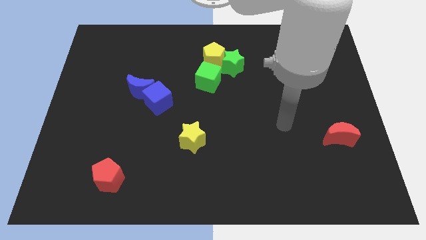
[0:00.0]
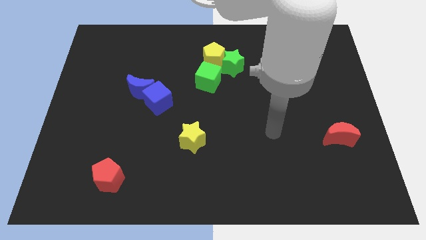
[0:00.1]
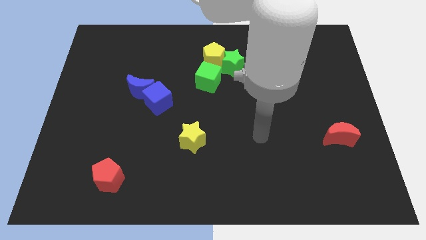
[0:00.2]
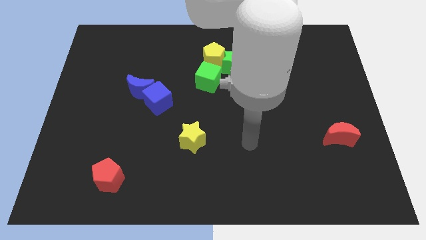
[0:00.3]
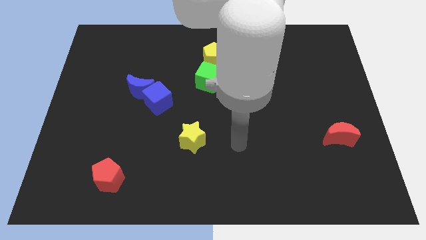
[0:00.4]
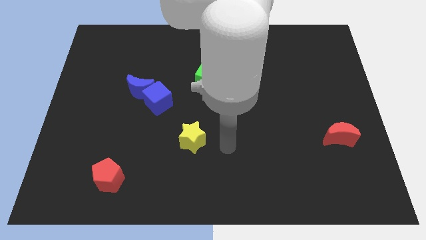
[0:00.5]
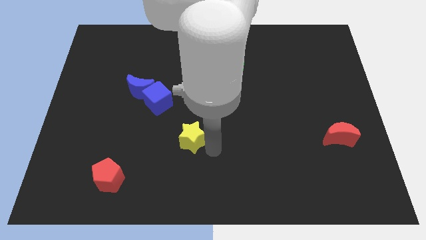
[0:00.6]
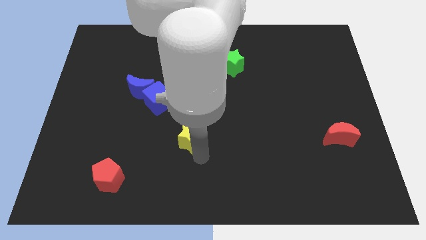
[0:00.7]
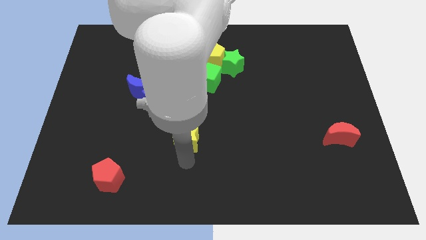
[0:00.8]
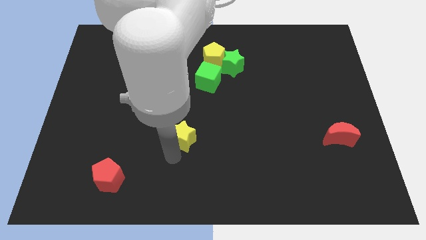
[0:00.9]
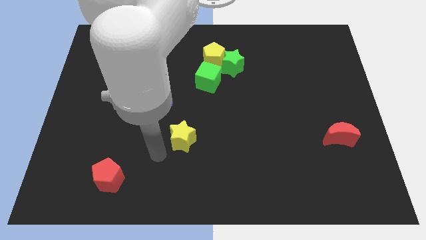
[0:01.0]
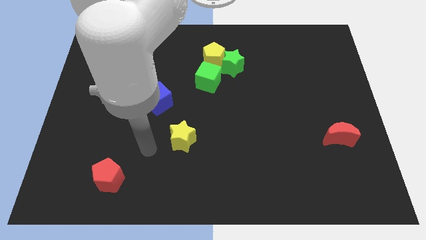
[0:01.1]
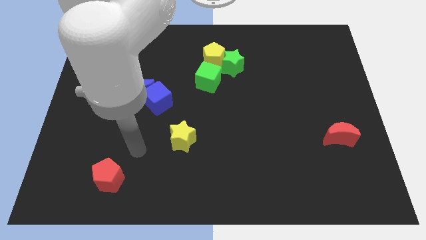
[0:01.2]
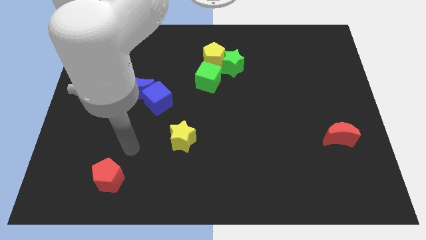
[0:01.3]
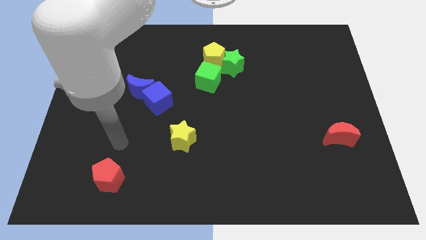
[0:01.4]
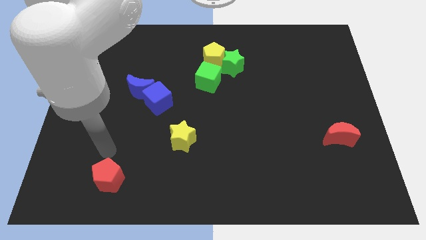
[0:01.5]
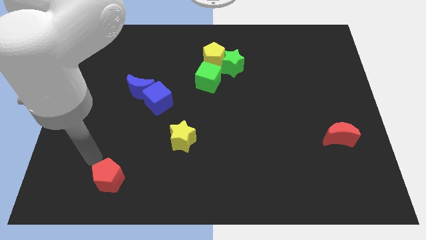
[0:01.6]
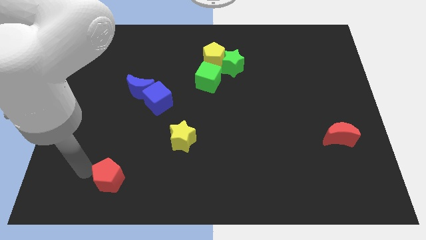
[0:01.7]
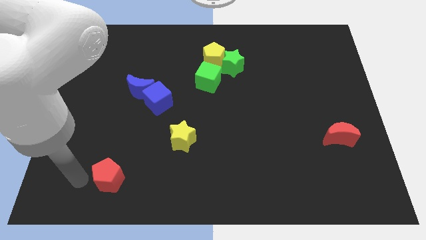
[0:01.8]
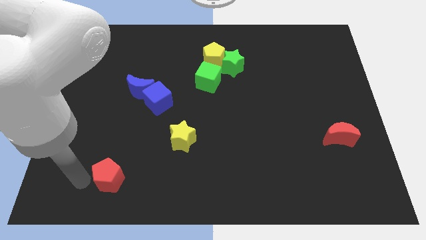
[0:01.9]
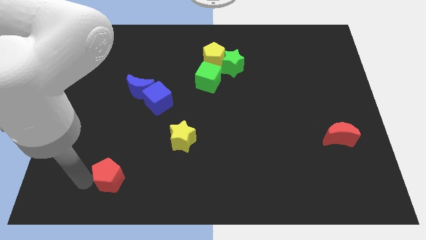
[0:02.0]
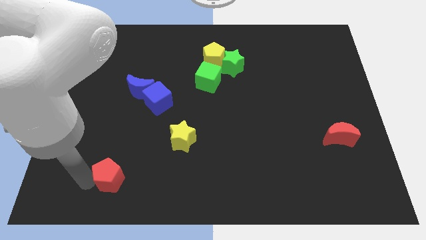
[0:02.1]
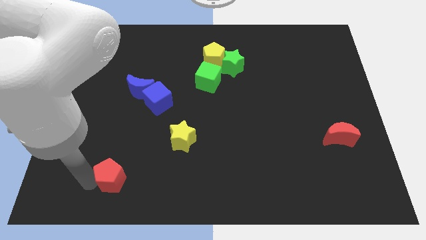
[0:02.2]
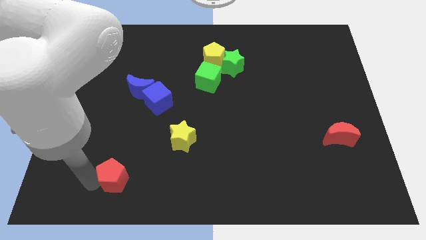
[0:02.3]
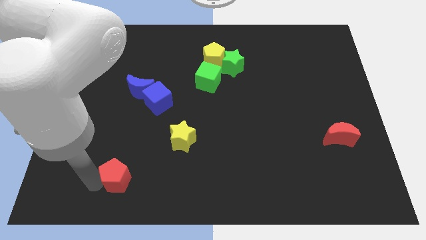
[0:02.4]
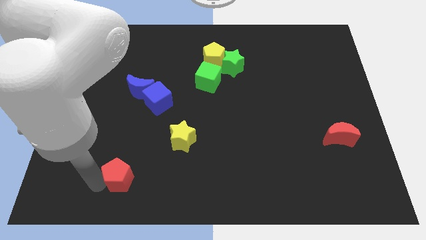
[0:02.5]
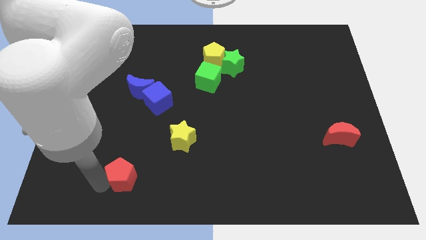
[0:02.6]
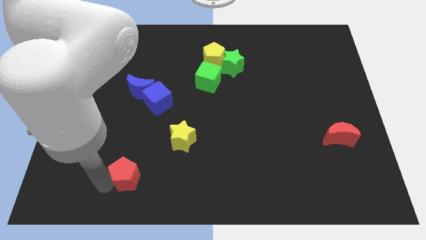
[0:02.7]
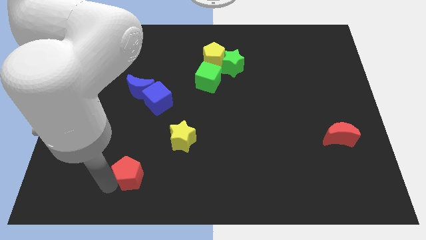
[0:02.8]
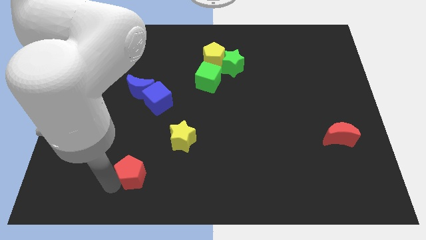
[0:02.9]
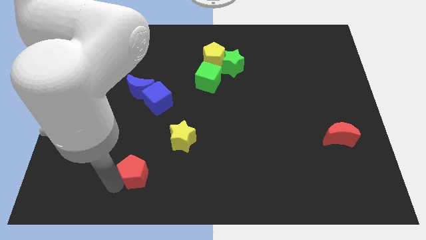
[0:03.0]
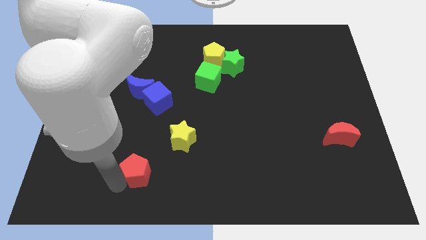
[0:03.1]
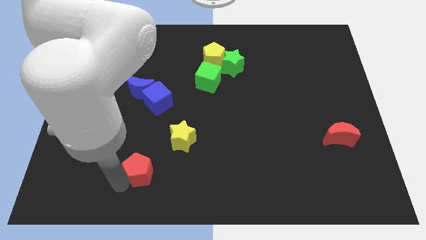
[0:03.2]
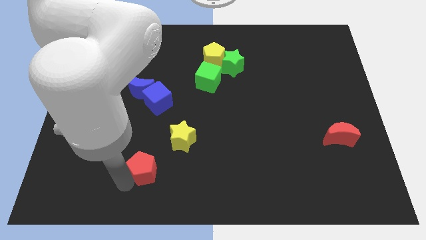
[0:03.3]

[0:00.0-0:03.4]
push the red pentagon somewhat to the right

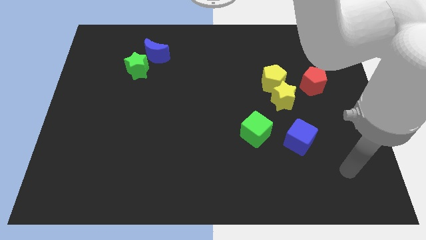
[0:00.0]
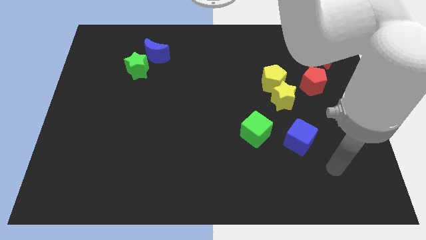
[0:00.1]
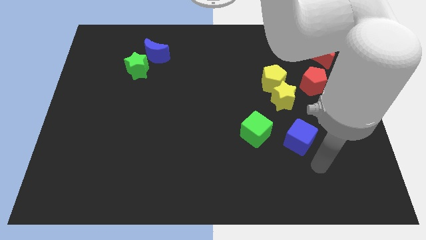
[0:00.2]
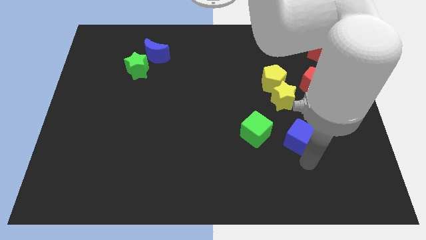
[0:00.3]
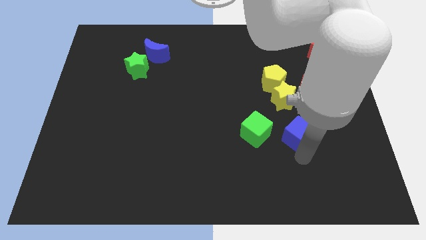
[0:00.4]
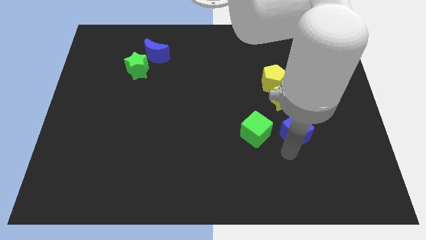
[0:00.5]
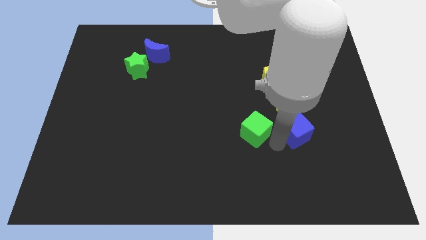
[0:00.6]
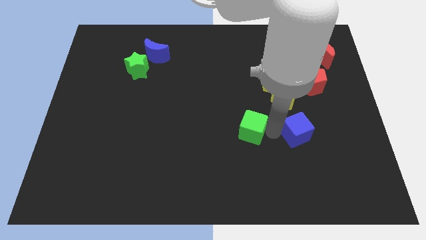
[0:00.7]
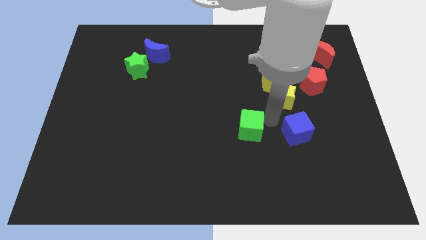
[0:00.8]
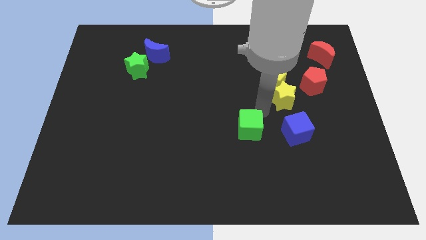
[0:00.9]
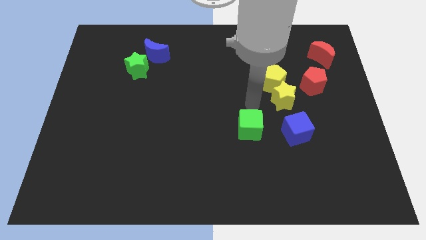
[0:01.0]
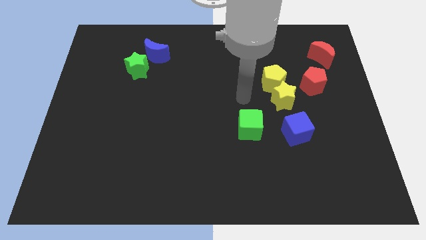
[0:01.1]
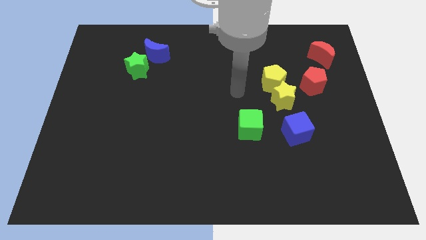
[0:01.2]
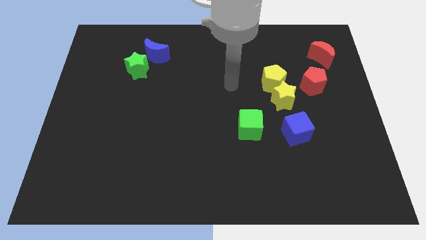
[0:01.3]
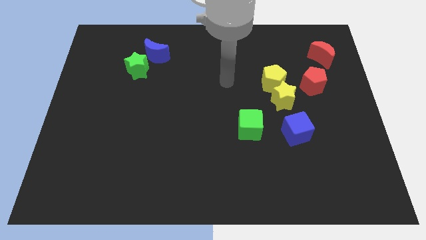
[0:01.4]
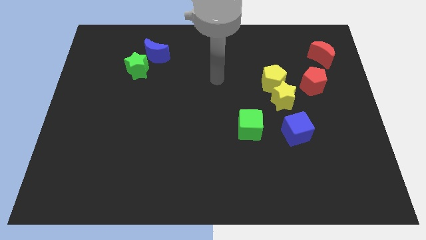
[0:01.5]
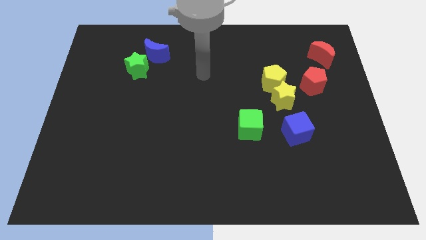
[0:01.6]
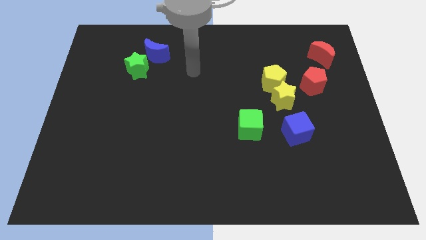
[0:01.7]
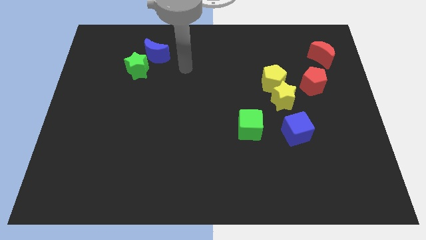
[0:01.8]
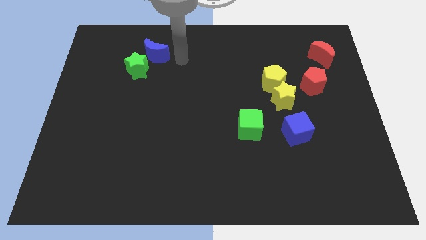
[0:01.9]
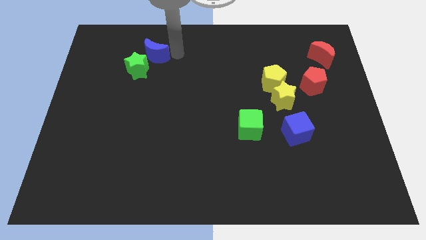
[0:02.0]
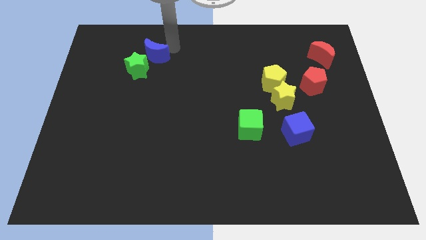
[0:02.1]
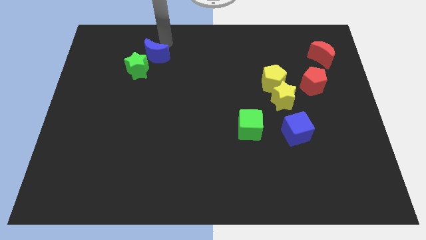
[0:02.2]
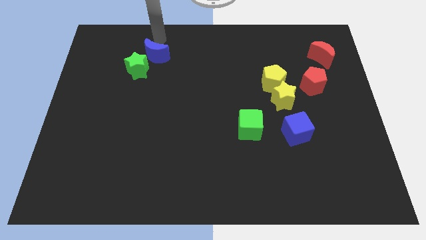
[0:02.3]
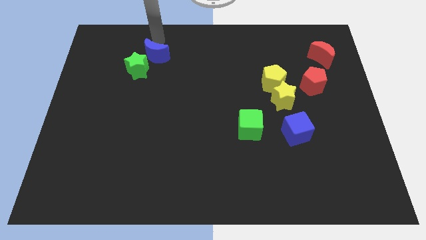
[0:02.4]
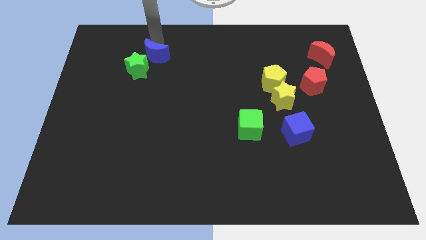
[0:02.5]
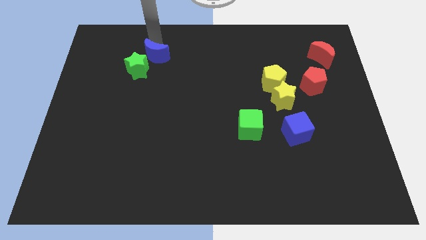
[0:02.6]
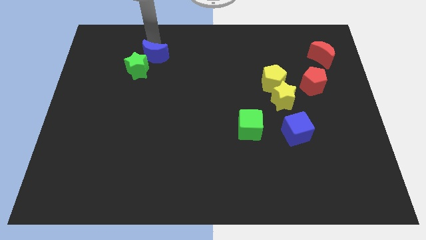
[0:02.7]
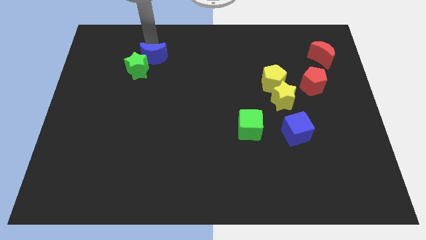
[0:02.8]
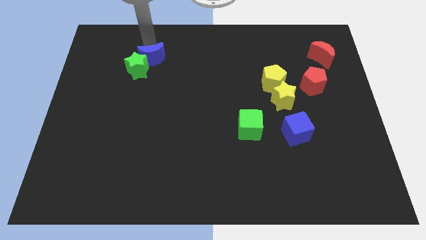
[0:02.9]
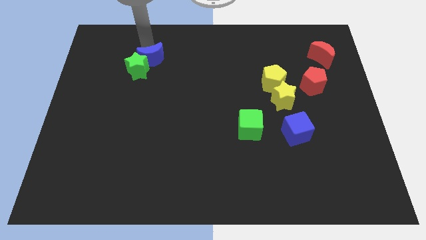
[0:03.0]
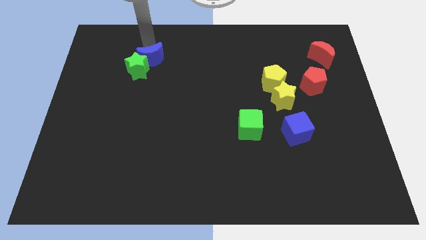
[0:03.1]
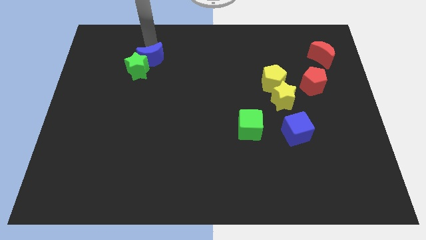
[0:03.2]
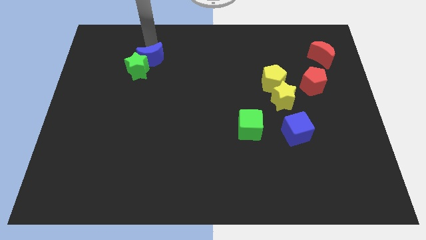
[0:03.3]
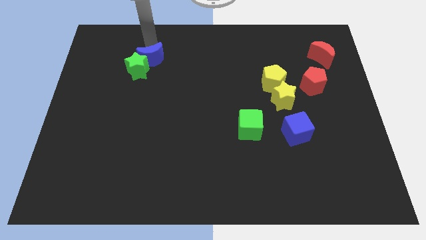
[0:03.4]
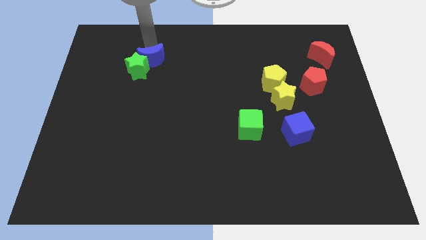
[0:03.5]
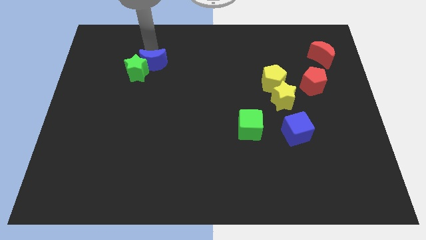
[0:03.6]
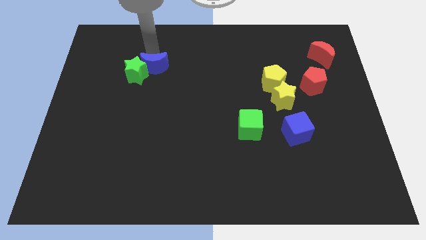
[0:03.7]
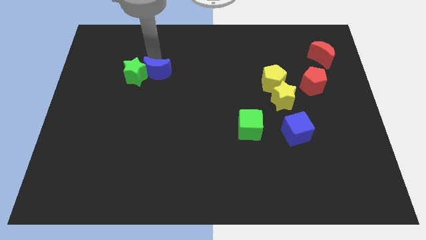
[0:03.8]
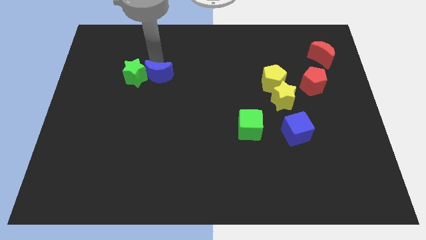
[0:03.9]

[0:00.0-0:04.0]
move the blue moon downwards a little

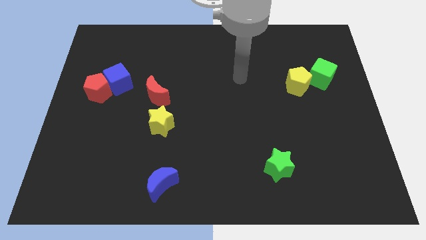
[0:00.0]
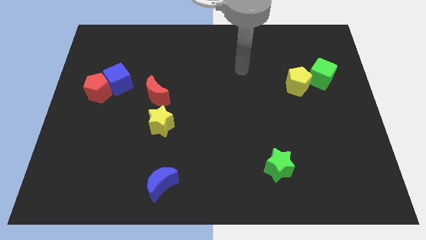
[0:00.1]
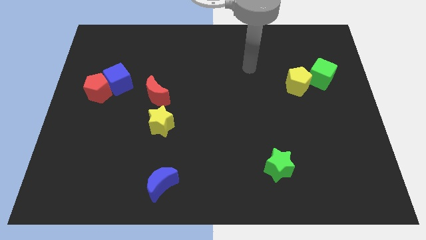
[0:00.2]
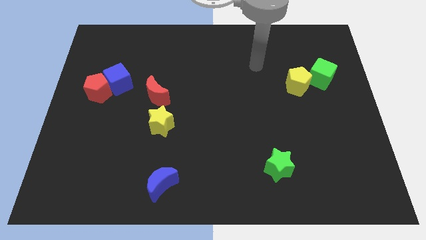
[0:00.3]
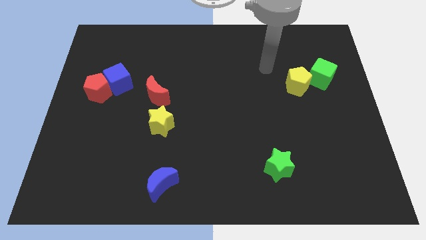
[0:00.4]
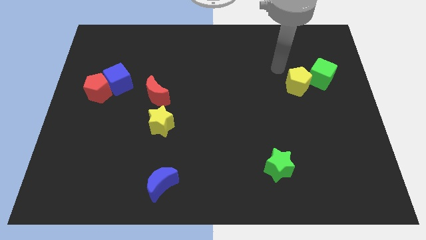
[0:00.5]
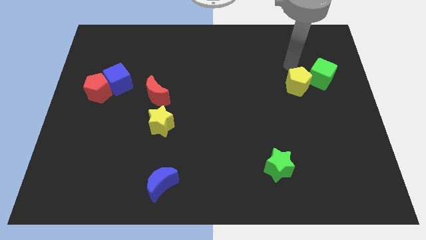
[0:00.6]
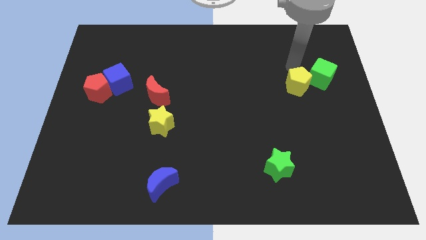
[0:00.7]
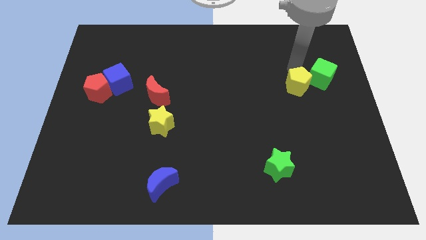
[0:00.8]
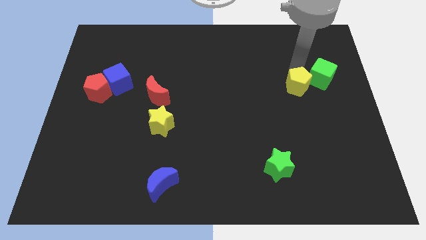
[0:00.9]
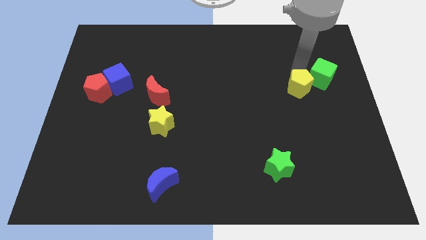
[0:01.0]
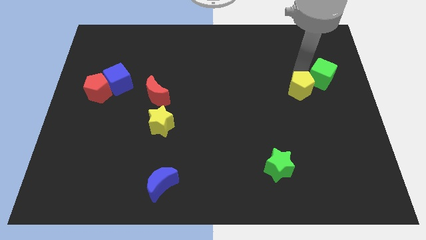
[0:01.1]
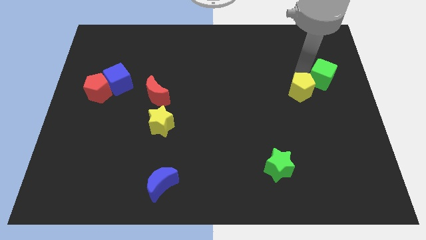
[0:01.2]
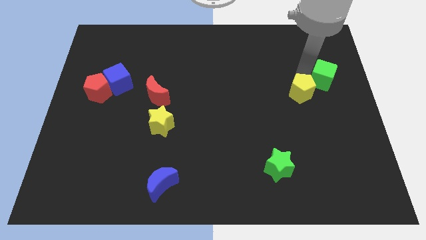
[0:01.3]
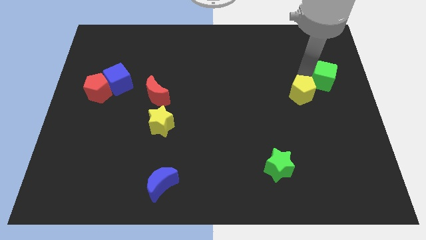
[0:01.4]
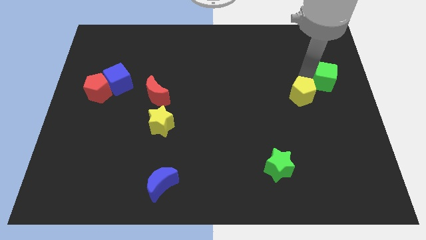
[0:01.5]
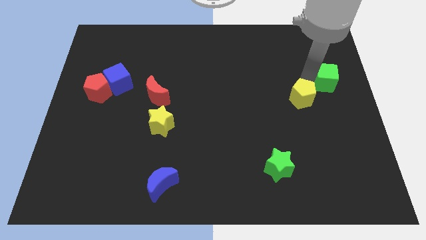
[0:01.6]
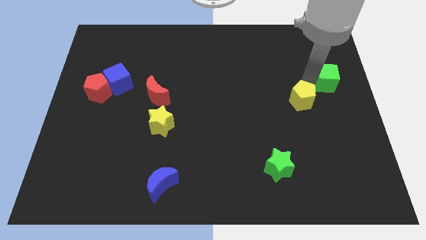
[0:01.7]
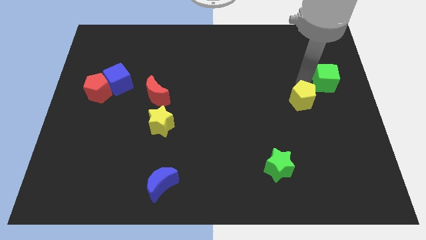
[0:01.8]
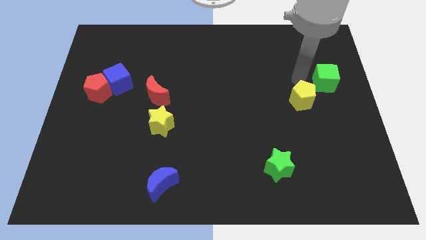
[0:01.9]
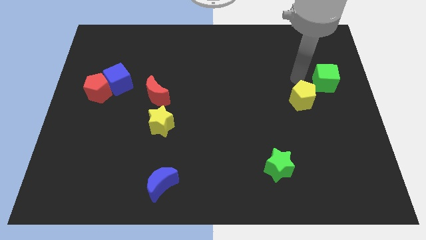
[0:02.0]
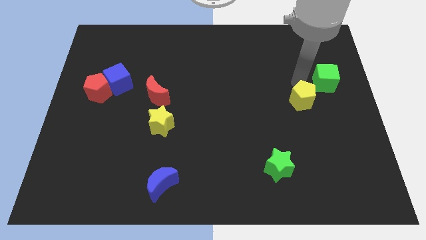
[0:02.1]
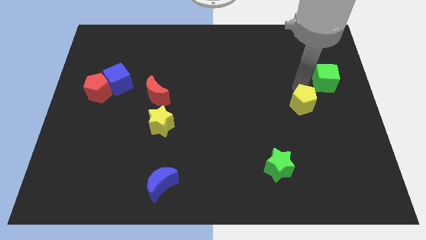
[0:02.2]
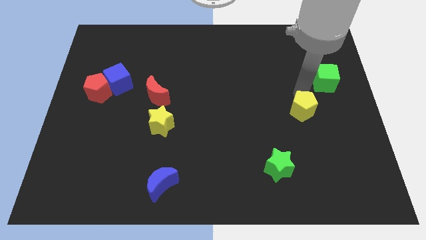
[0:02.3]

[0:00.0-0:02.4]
move the yellow pentagon down a bit
